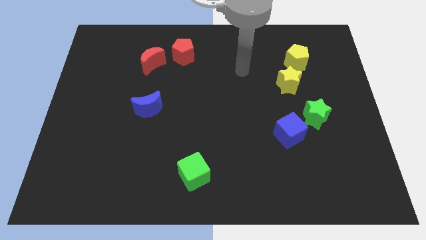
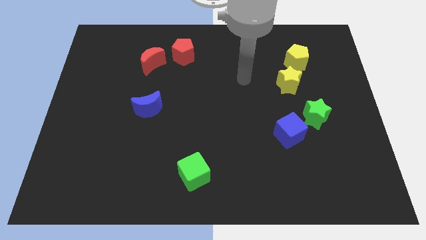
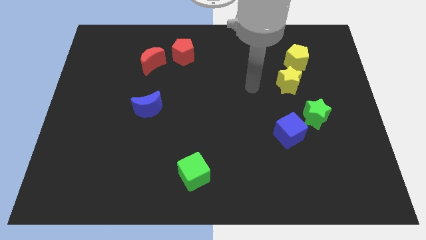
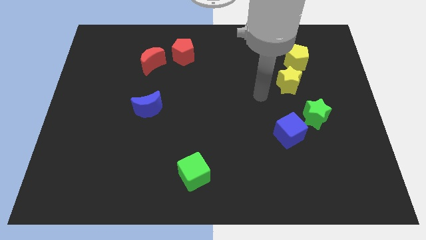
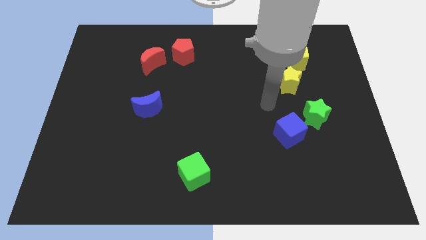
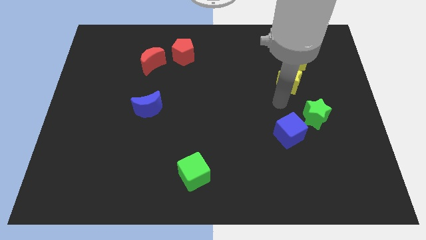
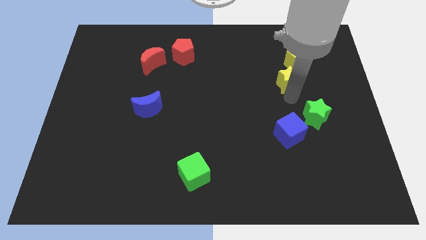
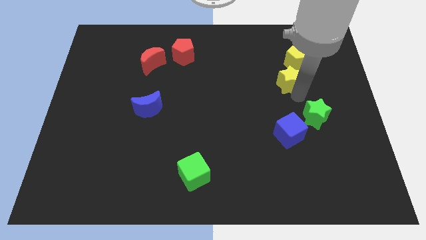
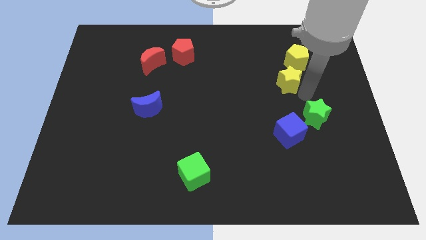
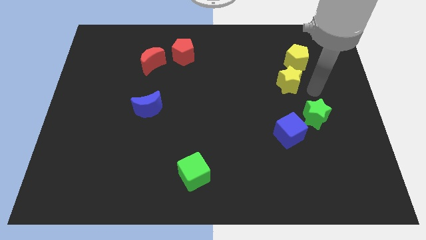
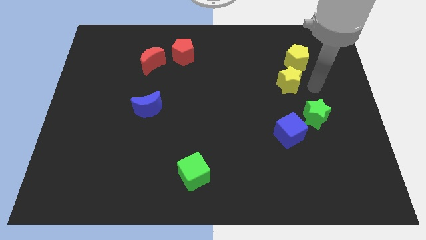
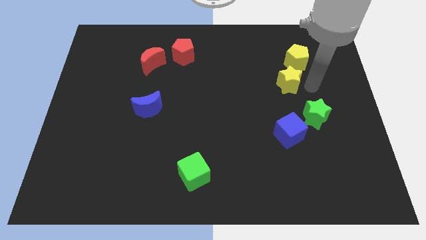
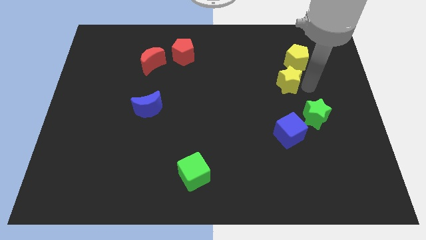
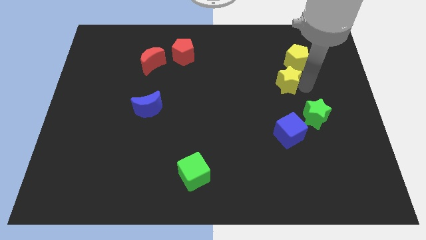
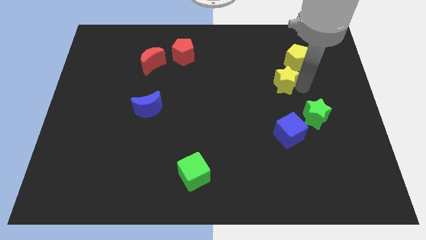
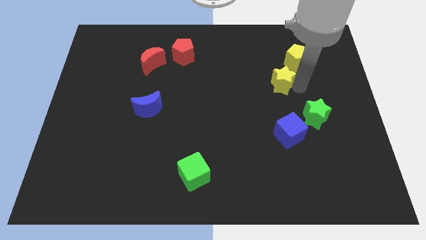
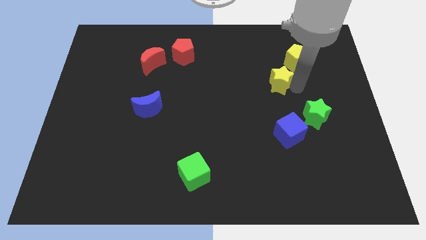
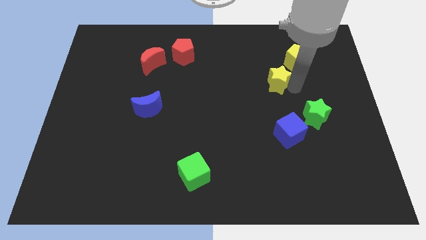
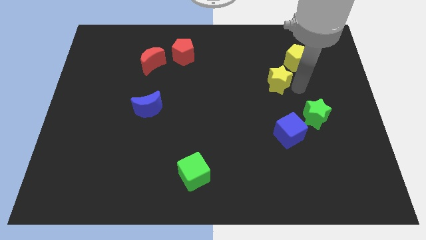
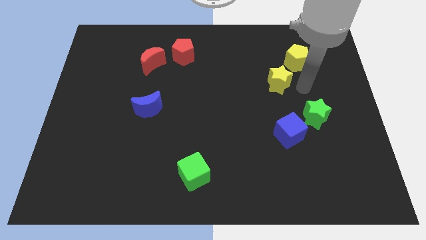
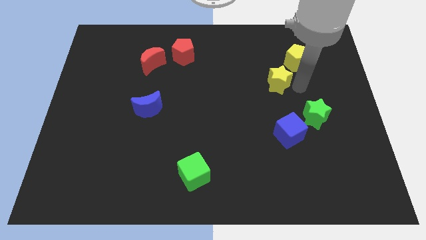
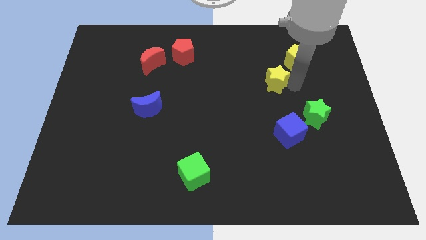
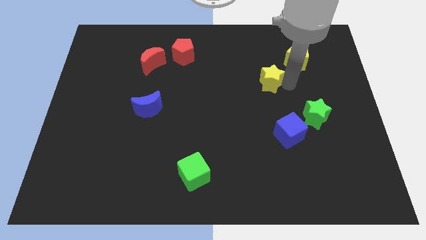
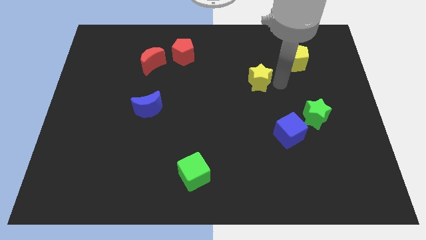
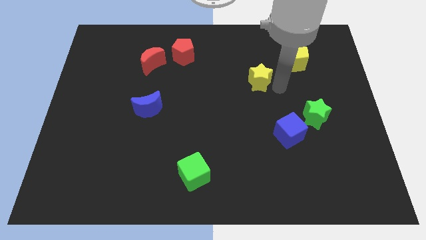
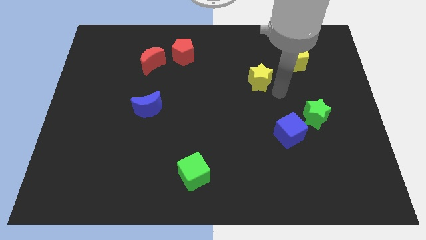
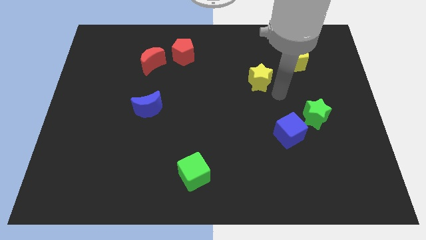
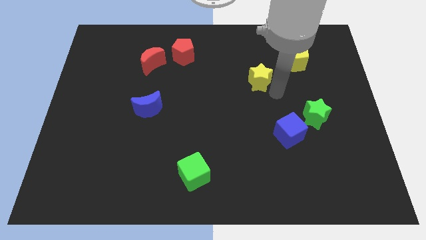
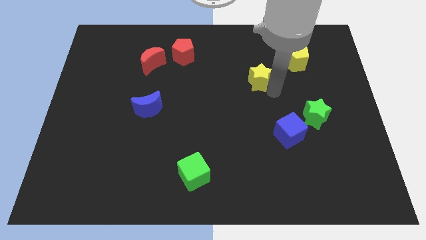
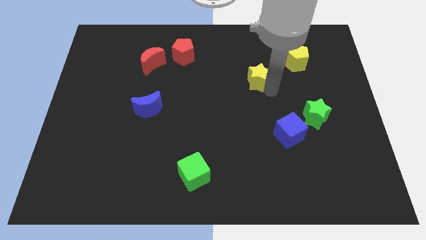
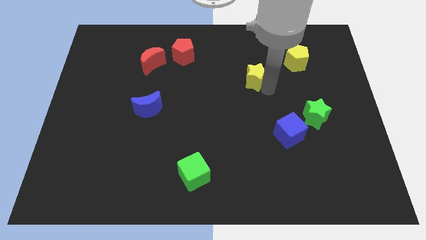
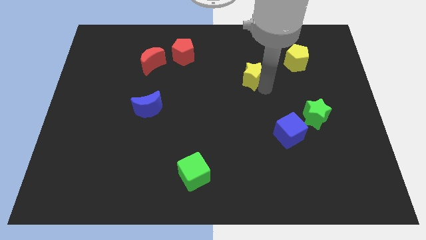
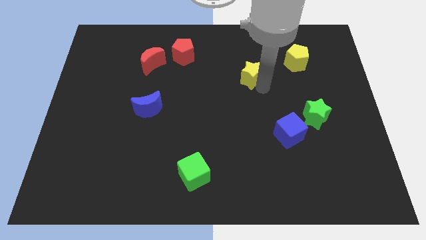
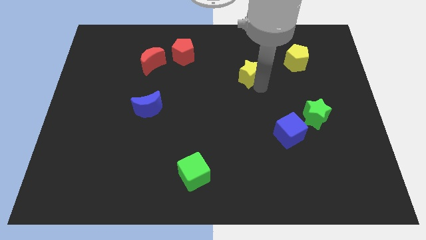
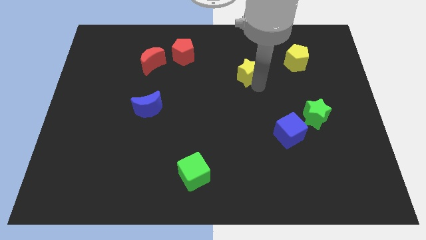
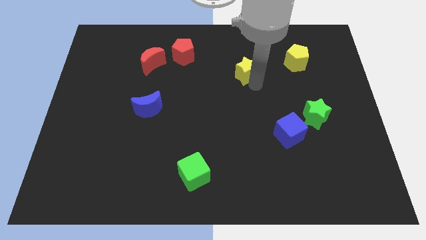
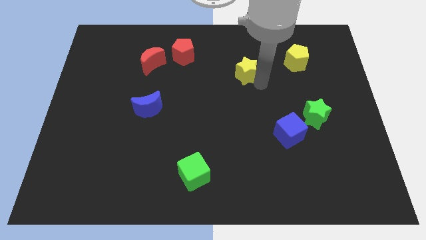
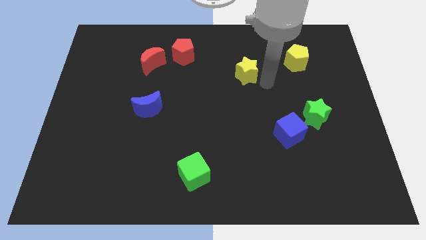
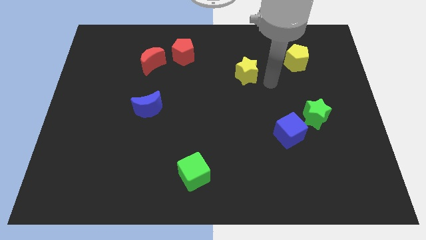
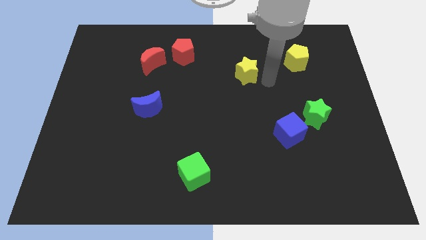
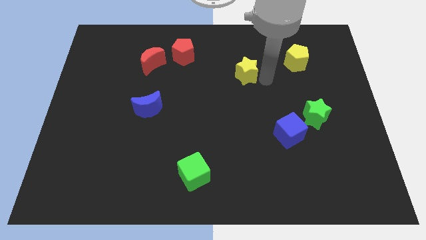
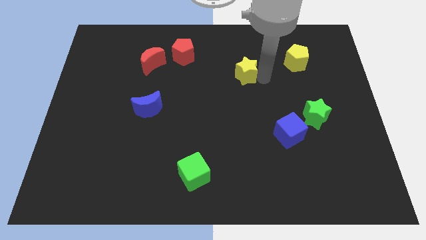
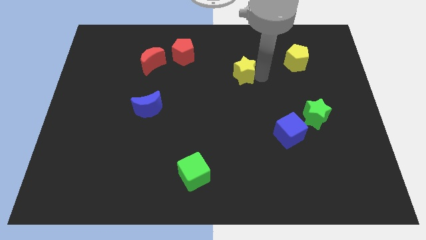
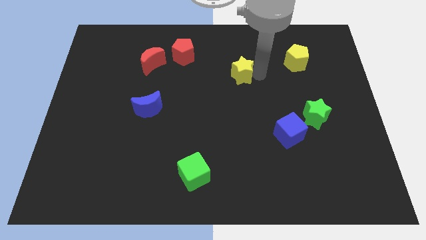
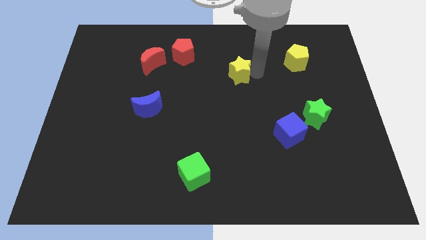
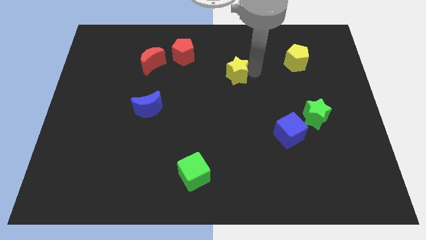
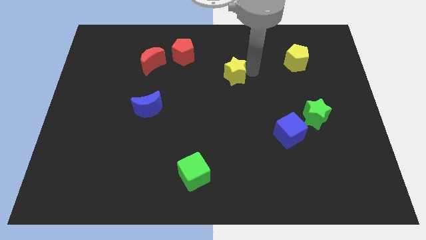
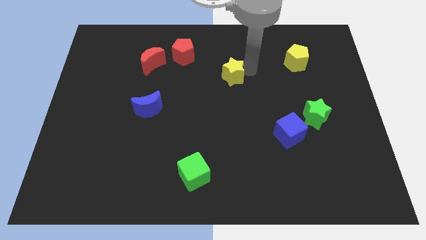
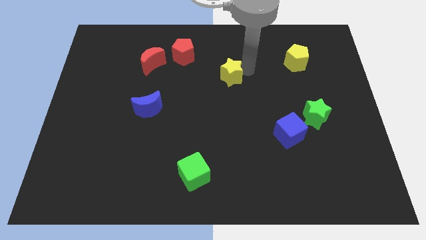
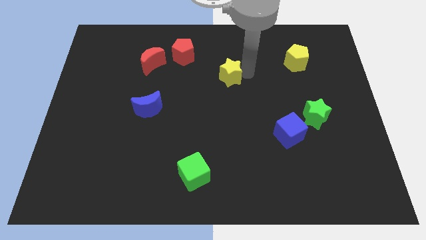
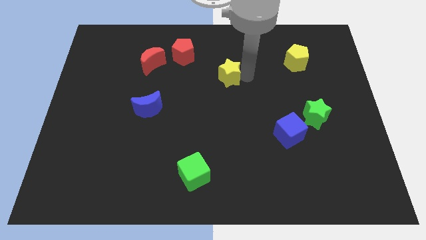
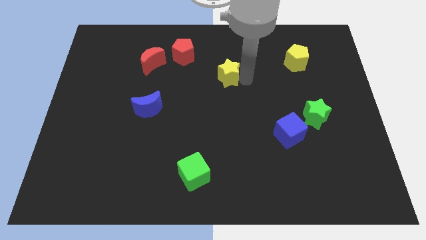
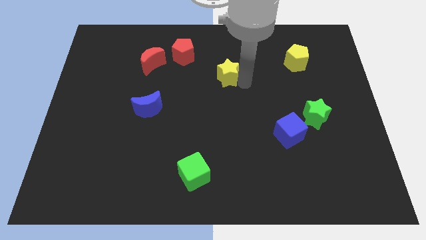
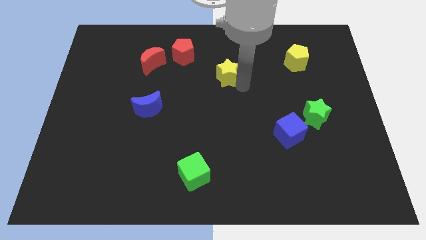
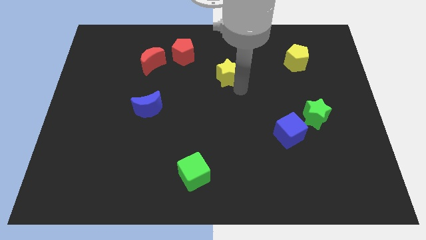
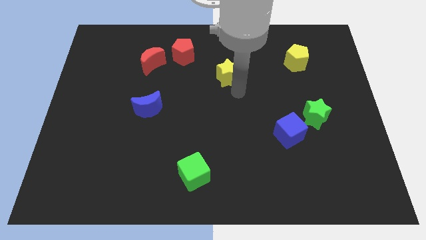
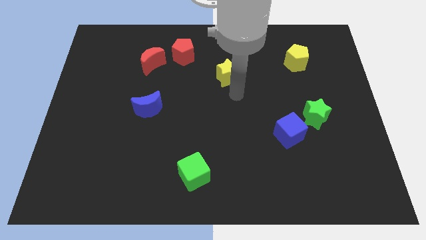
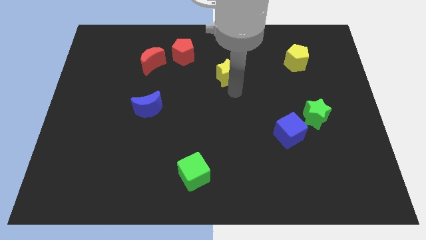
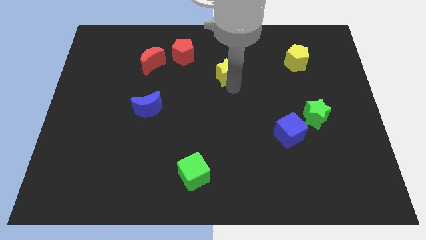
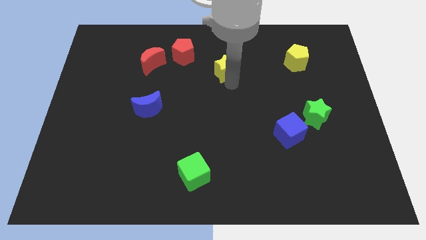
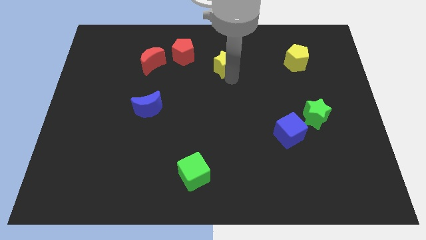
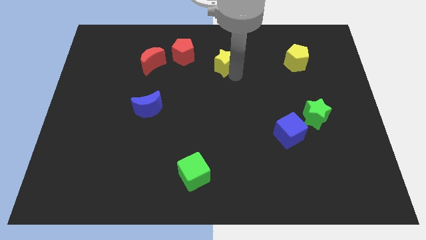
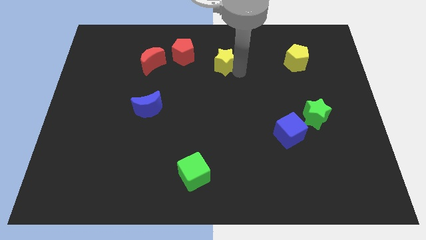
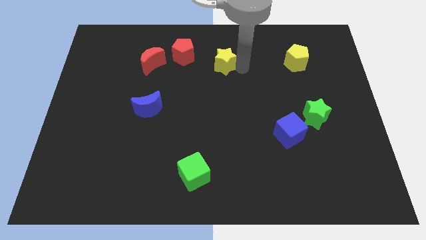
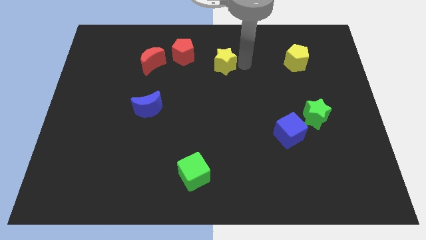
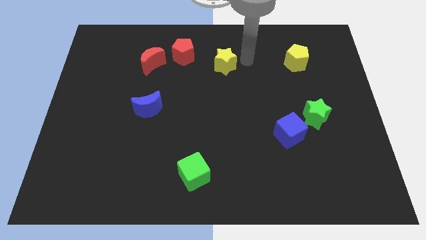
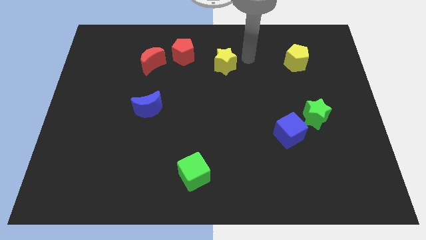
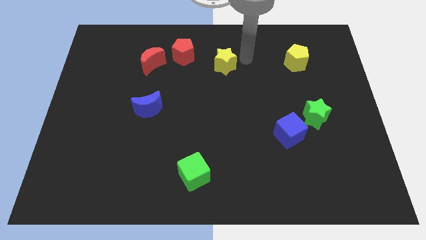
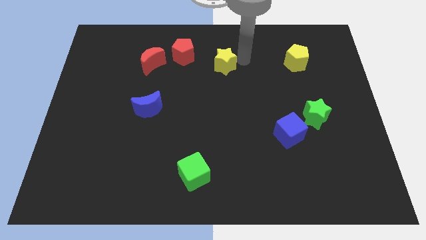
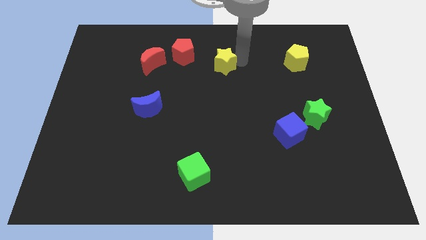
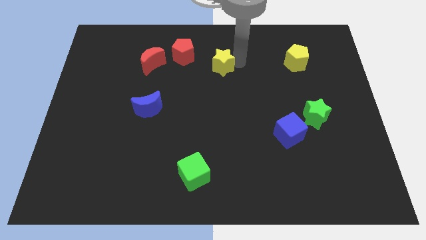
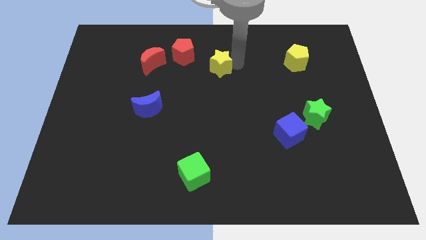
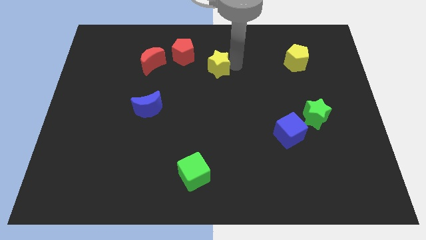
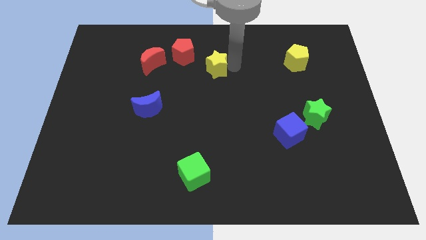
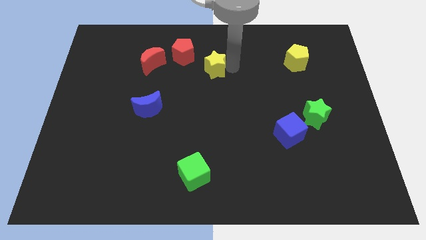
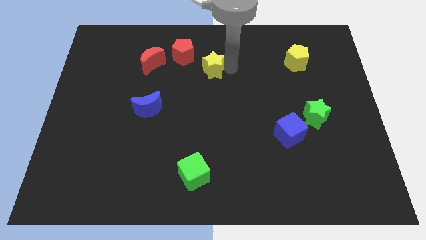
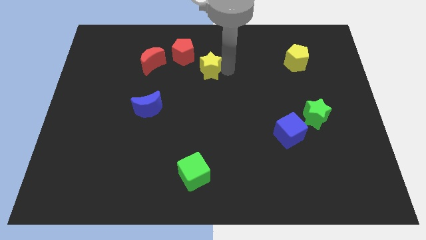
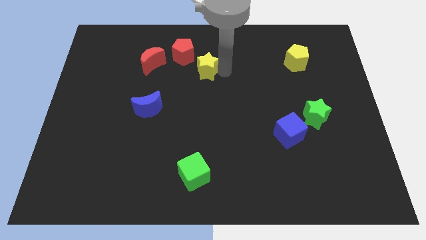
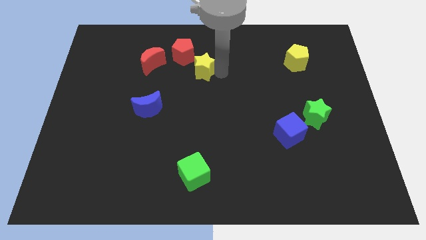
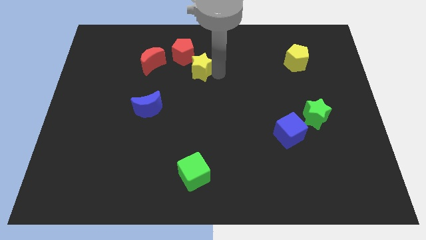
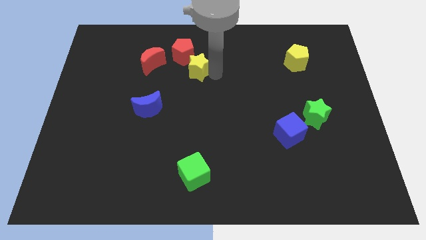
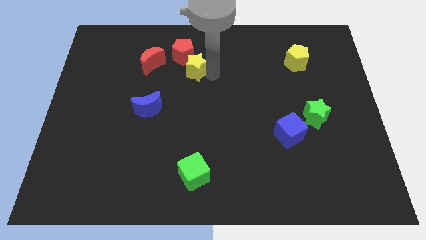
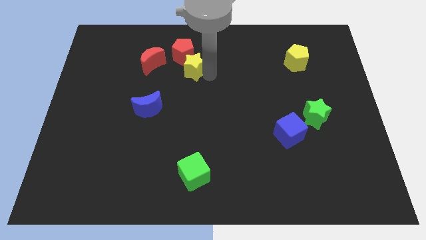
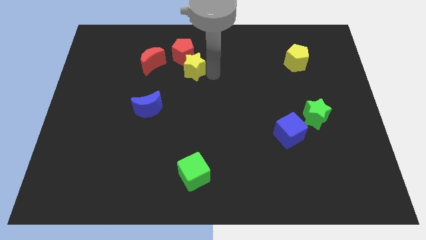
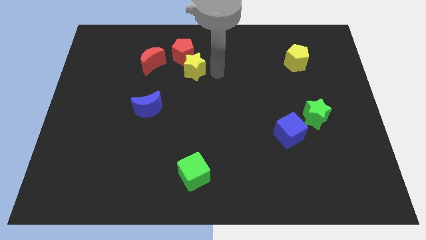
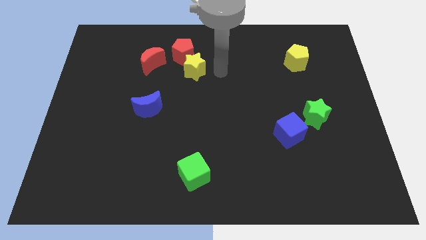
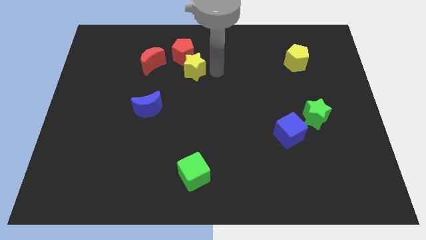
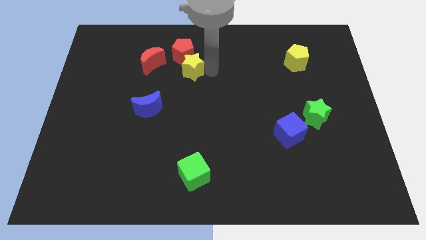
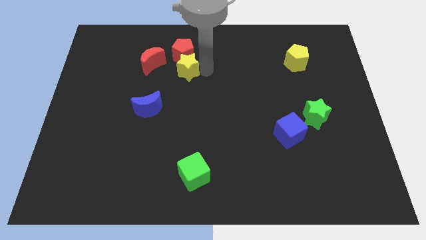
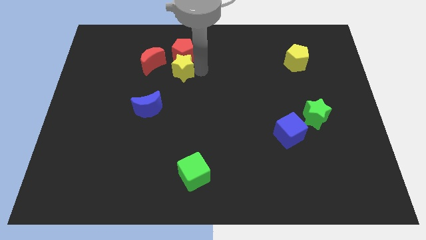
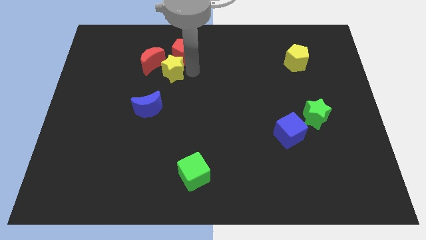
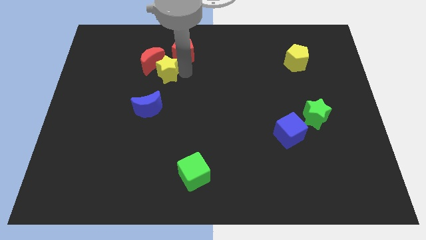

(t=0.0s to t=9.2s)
move the yellow star to the red moon
